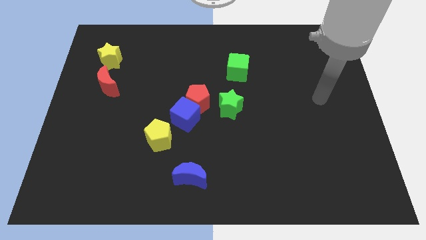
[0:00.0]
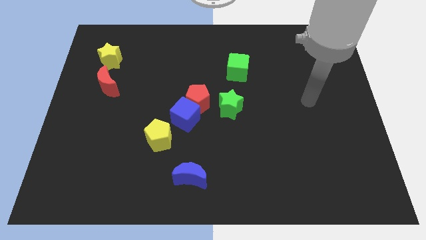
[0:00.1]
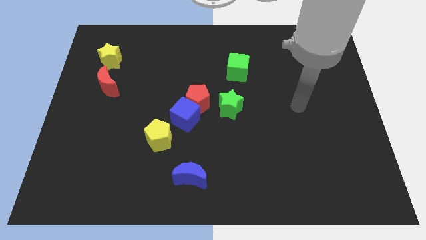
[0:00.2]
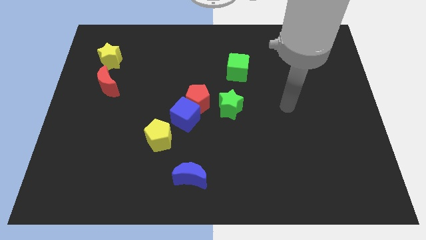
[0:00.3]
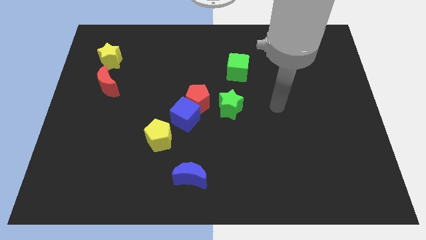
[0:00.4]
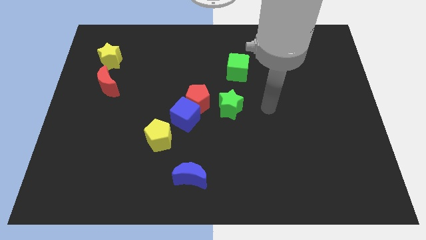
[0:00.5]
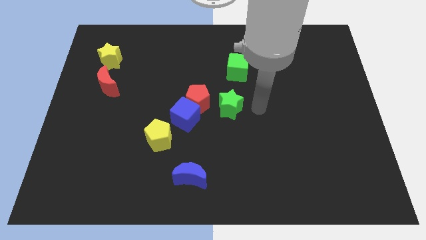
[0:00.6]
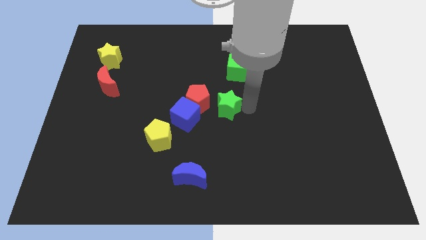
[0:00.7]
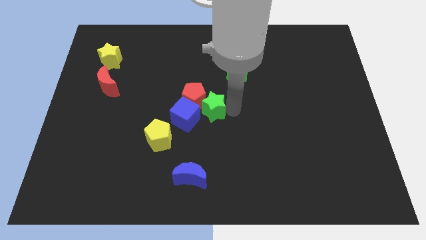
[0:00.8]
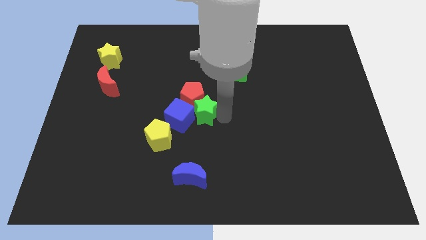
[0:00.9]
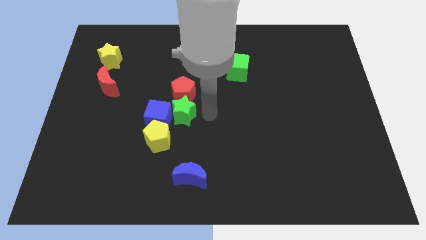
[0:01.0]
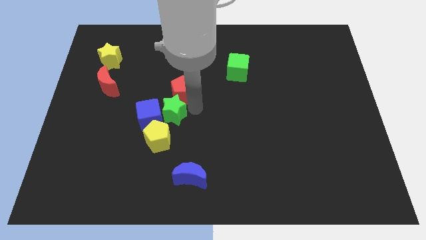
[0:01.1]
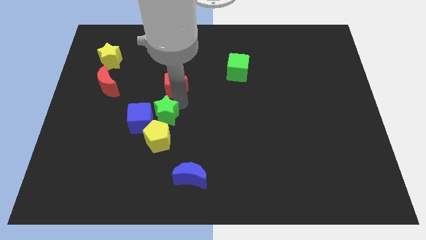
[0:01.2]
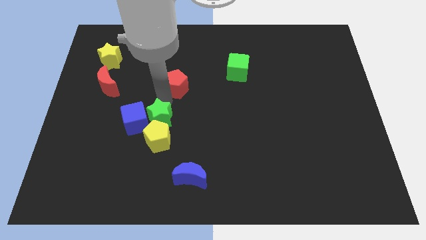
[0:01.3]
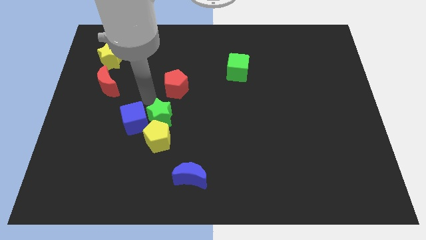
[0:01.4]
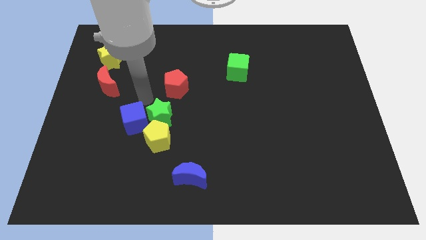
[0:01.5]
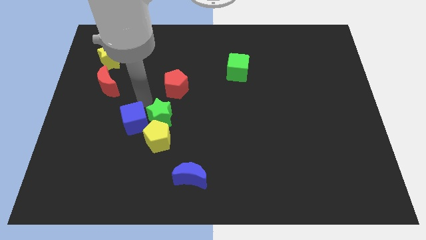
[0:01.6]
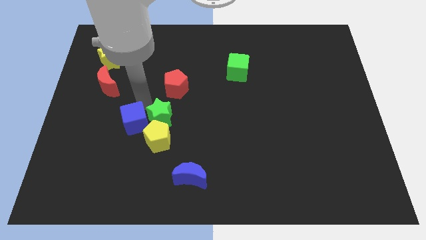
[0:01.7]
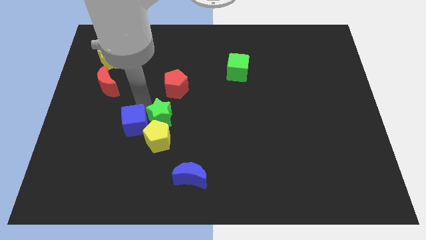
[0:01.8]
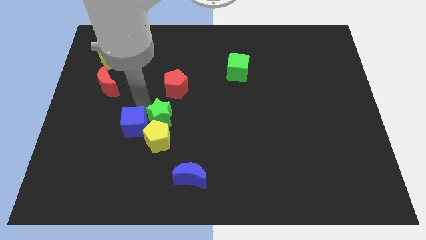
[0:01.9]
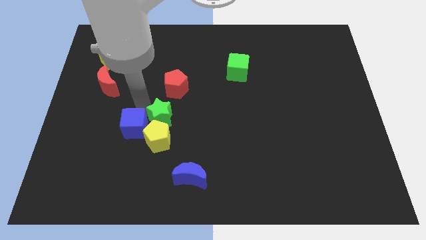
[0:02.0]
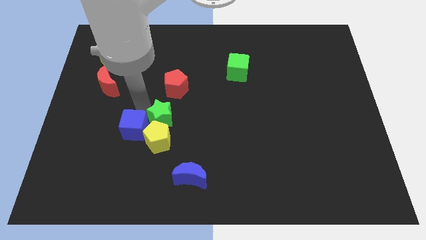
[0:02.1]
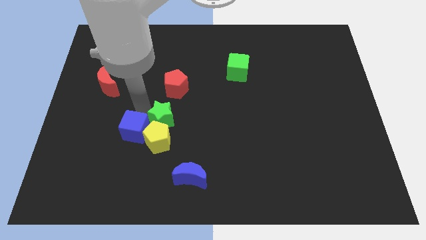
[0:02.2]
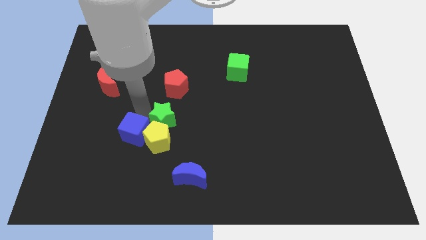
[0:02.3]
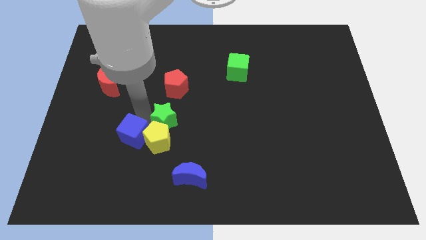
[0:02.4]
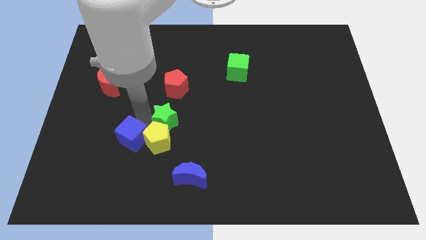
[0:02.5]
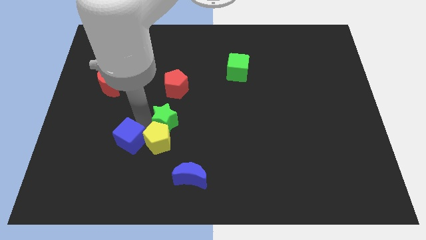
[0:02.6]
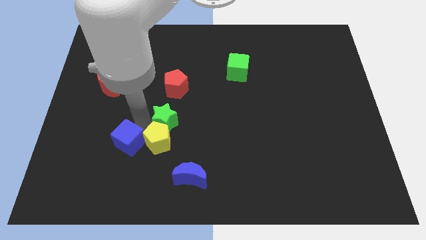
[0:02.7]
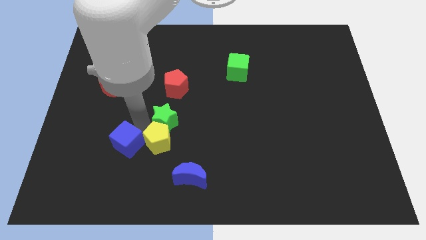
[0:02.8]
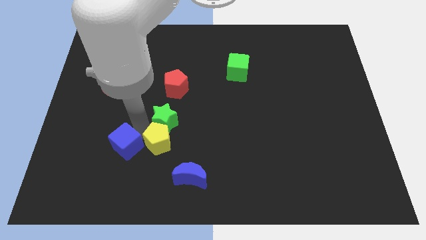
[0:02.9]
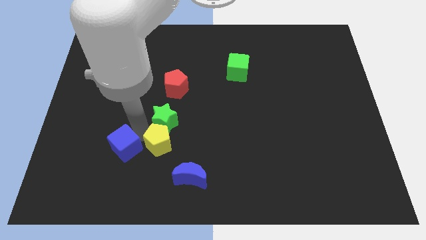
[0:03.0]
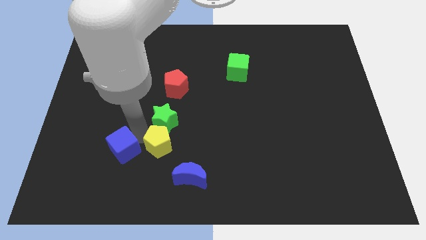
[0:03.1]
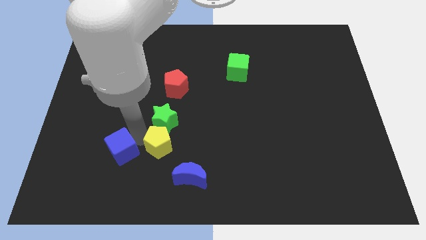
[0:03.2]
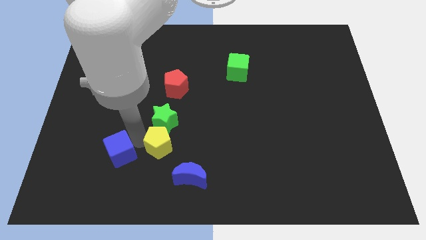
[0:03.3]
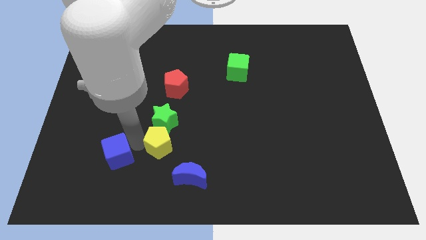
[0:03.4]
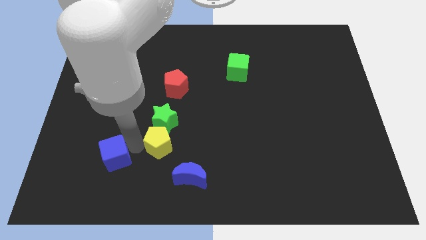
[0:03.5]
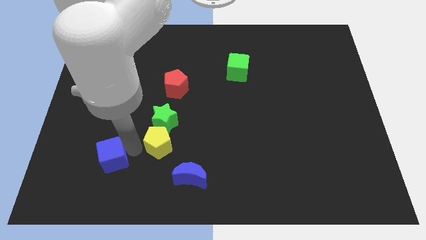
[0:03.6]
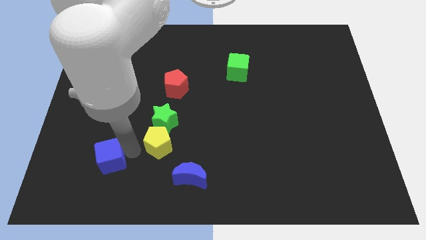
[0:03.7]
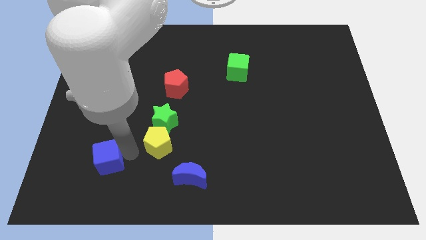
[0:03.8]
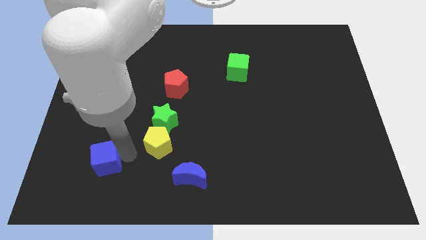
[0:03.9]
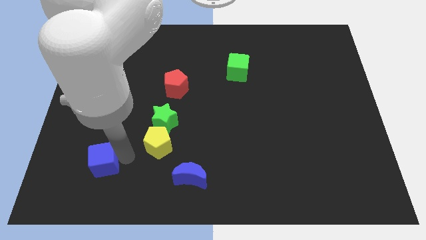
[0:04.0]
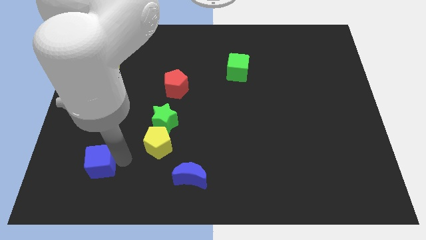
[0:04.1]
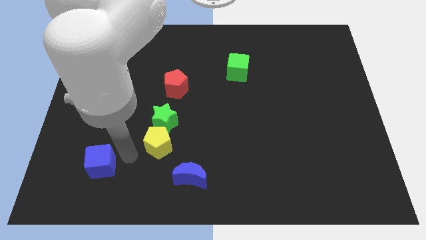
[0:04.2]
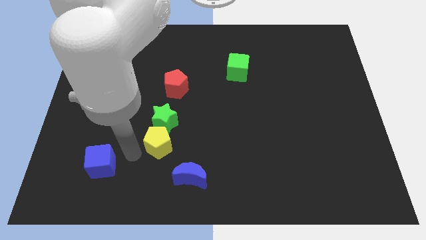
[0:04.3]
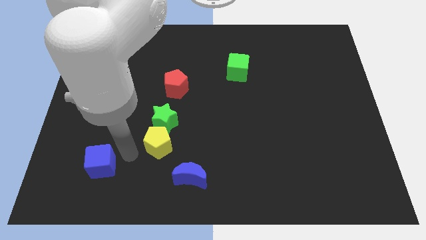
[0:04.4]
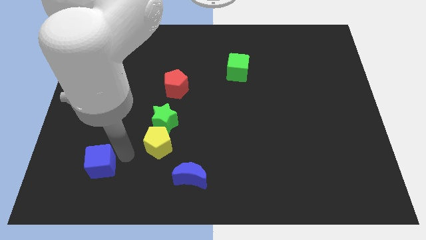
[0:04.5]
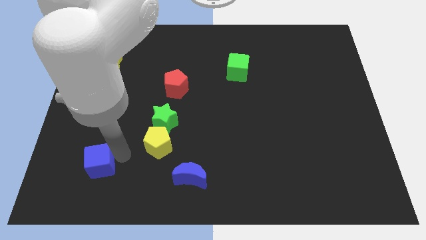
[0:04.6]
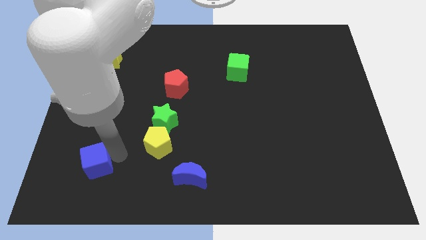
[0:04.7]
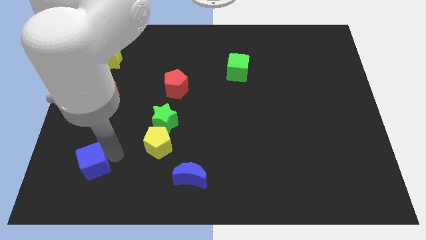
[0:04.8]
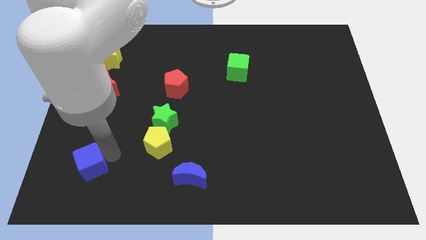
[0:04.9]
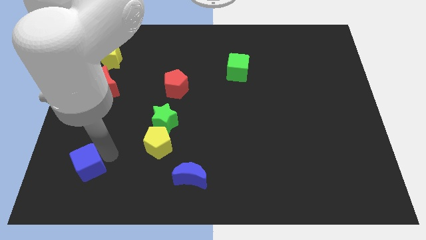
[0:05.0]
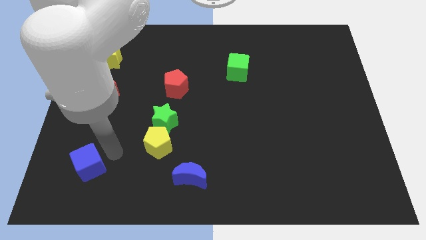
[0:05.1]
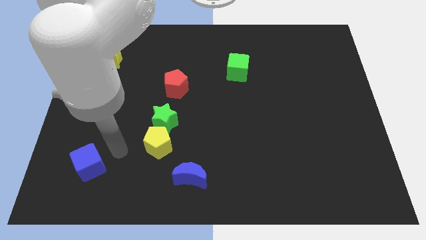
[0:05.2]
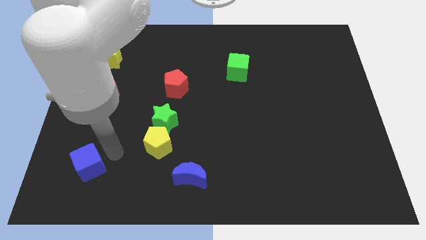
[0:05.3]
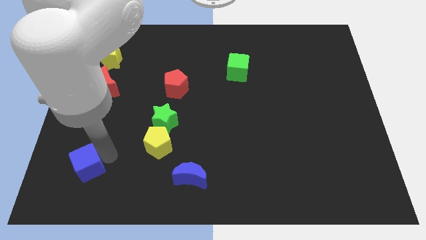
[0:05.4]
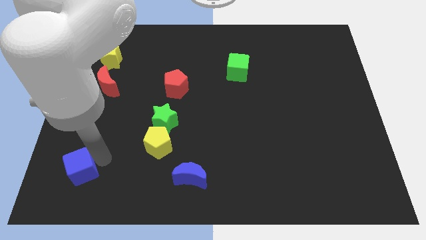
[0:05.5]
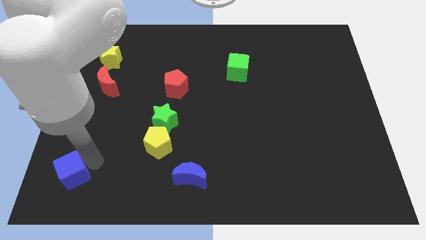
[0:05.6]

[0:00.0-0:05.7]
move the blue cube to the bottom left corner

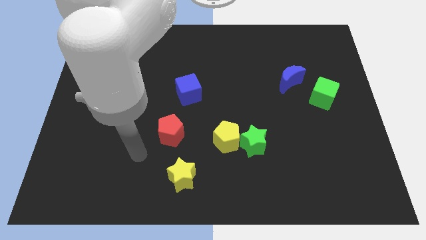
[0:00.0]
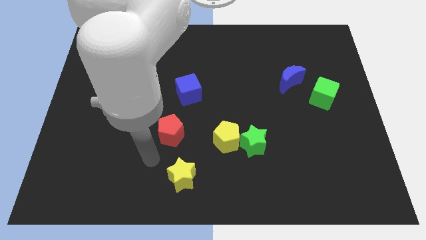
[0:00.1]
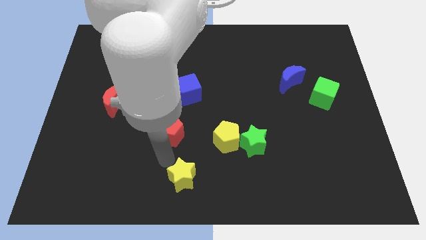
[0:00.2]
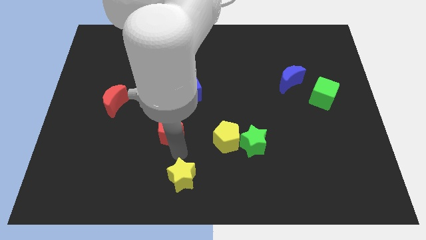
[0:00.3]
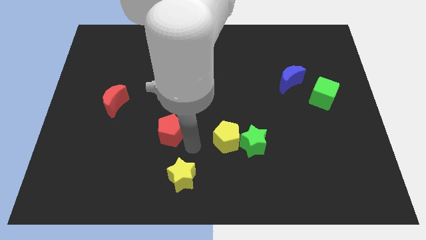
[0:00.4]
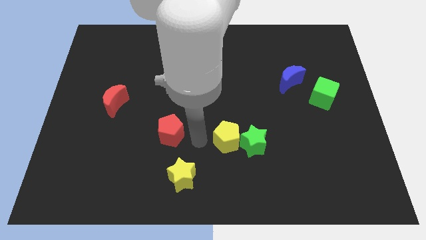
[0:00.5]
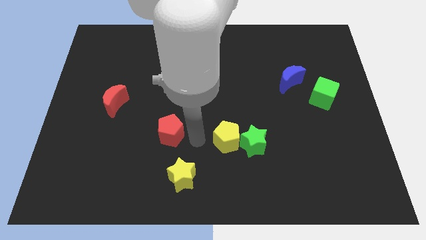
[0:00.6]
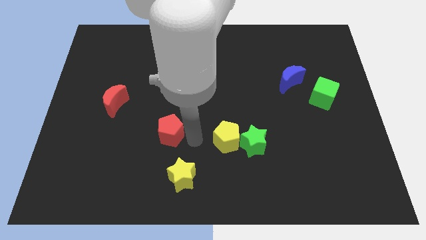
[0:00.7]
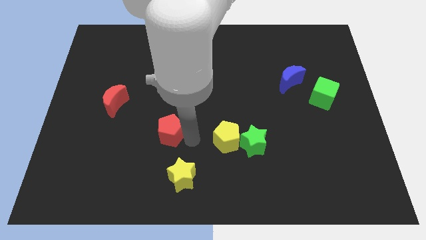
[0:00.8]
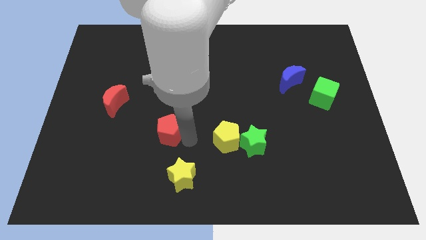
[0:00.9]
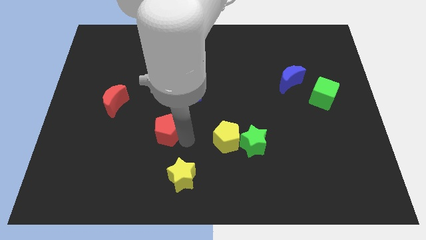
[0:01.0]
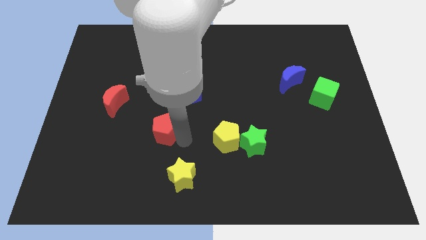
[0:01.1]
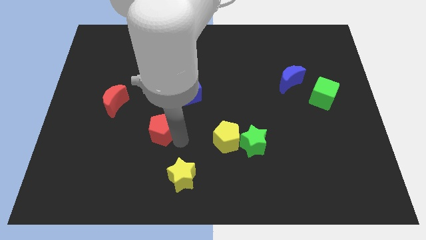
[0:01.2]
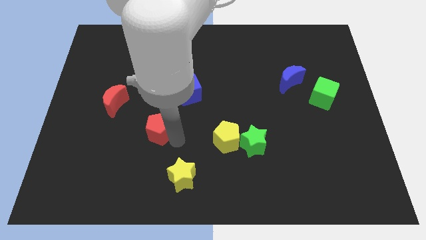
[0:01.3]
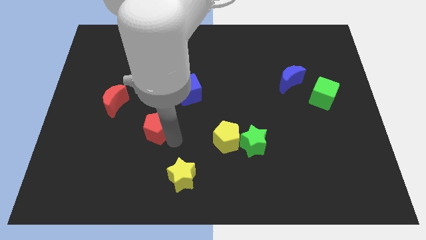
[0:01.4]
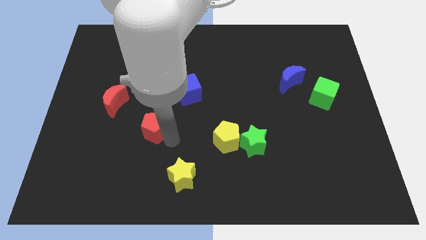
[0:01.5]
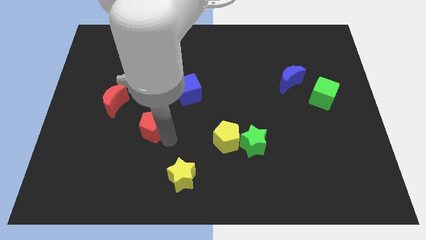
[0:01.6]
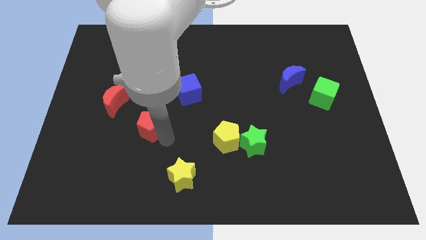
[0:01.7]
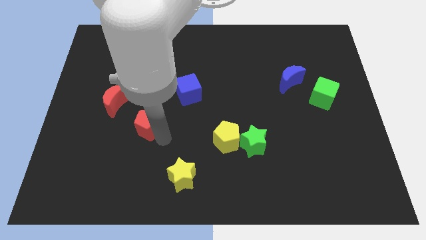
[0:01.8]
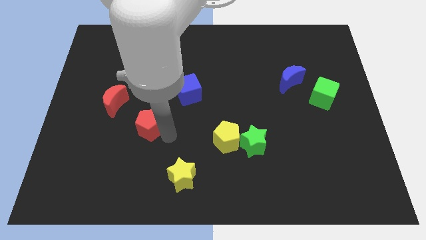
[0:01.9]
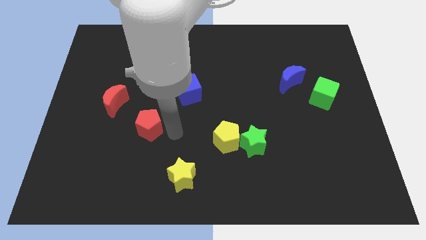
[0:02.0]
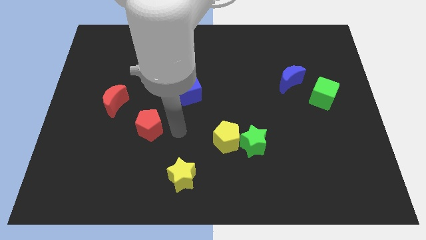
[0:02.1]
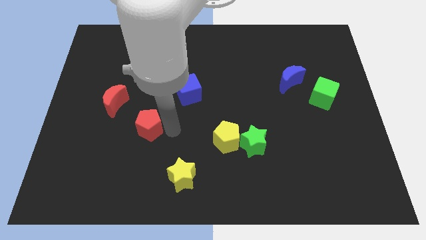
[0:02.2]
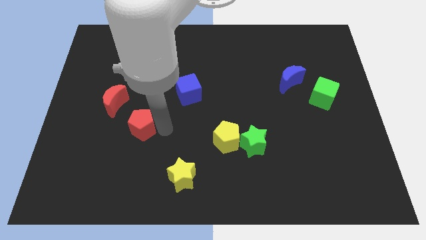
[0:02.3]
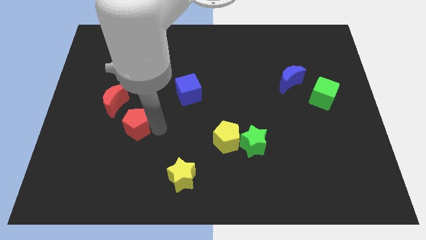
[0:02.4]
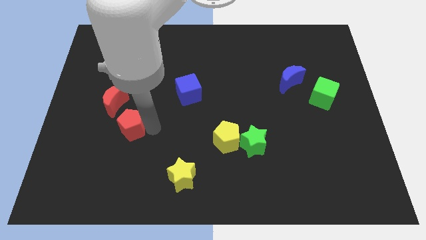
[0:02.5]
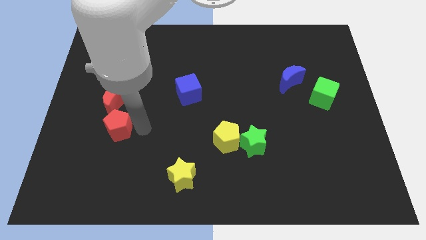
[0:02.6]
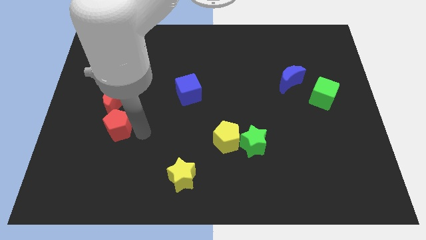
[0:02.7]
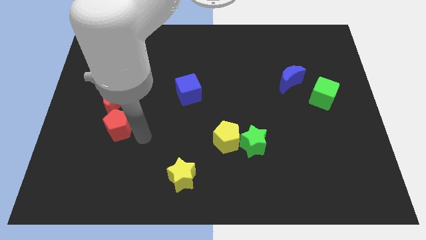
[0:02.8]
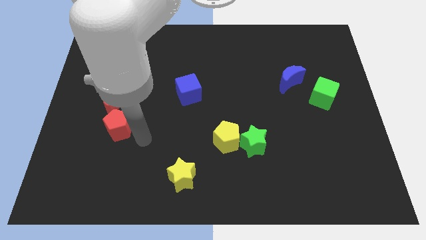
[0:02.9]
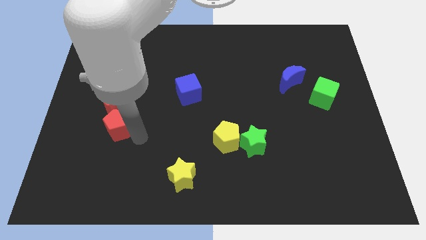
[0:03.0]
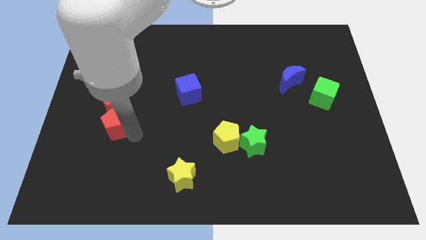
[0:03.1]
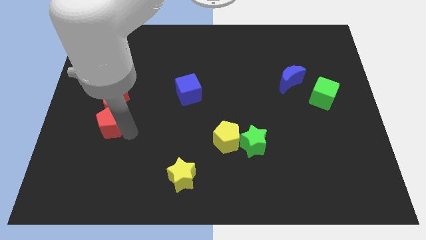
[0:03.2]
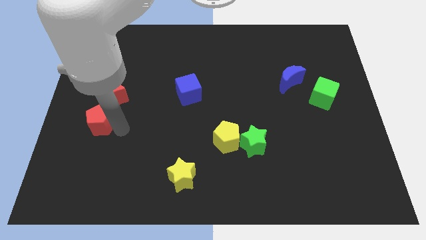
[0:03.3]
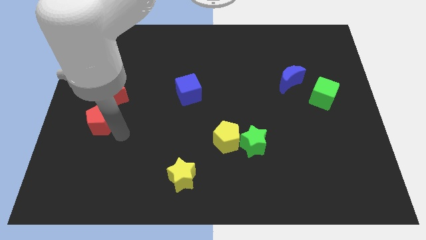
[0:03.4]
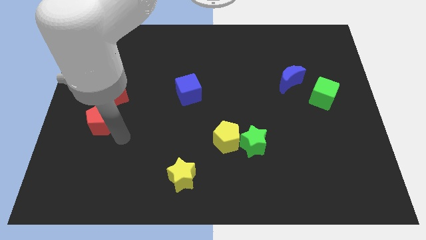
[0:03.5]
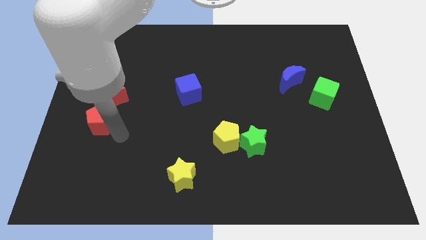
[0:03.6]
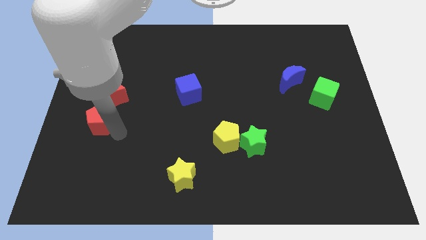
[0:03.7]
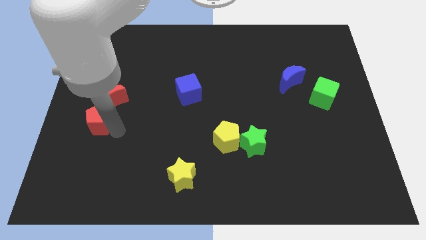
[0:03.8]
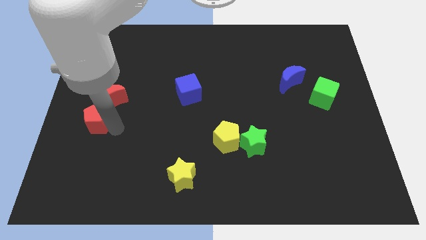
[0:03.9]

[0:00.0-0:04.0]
slide the red pentagon to the left side of the board
